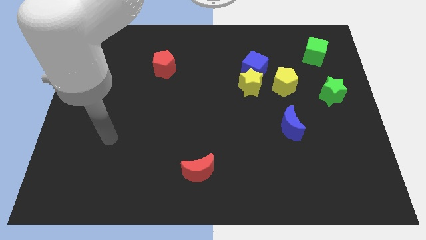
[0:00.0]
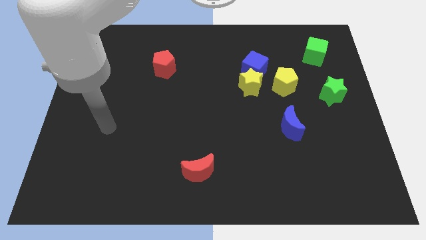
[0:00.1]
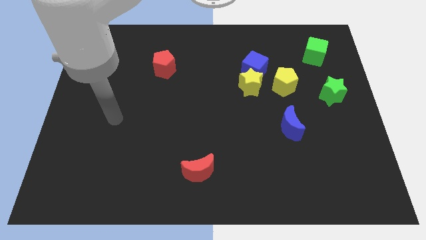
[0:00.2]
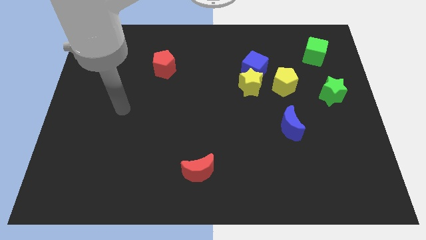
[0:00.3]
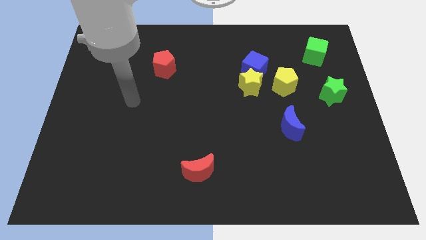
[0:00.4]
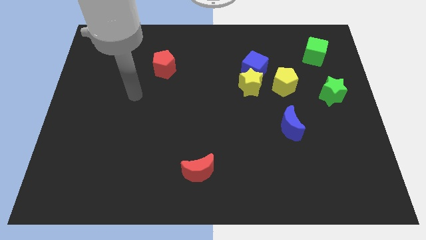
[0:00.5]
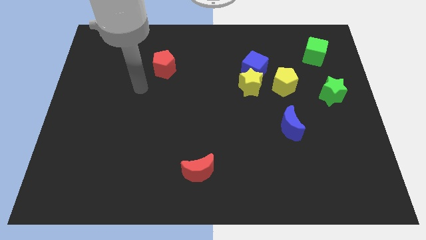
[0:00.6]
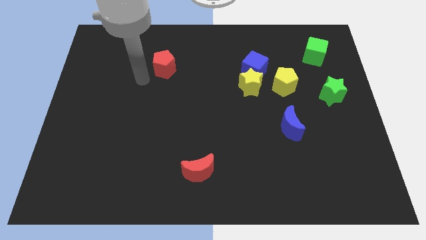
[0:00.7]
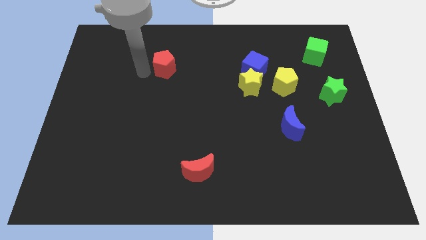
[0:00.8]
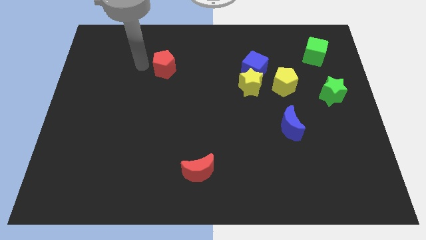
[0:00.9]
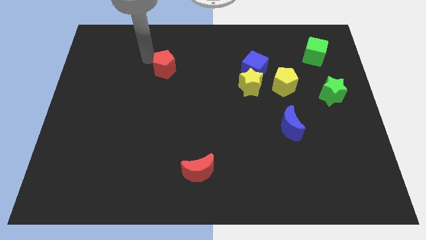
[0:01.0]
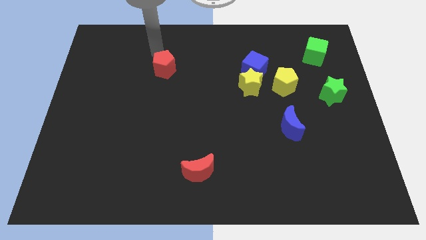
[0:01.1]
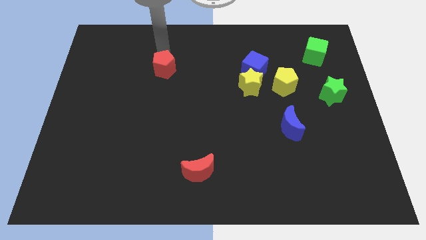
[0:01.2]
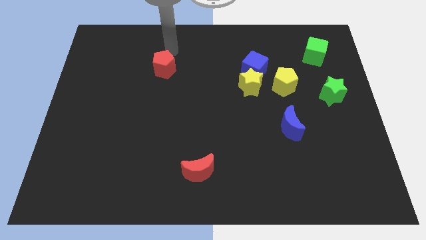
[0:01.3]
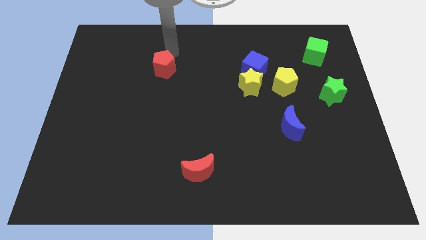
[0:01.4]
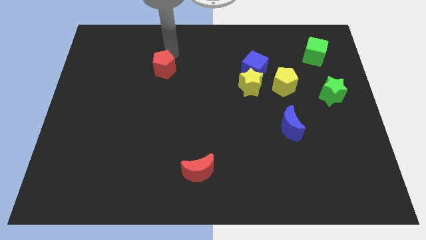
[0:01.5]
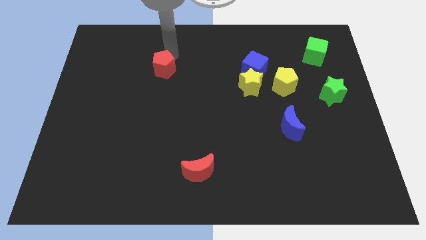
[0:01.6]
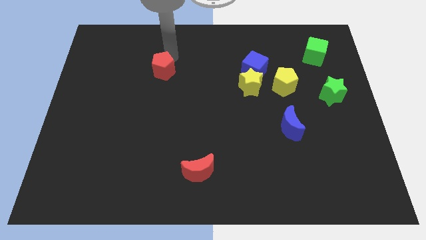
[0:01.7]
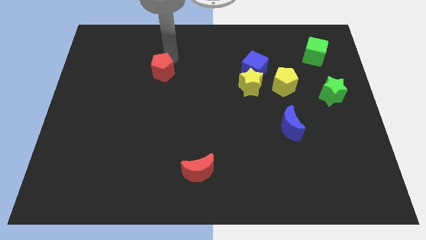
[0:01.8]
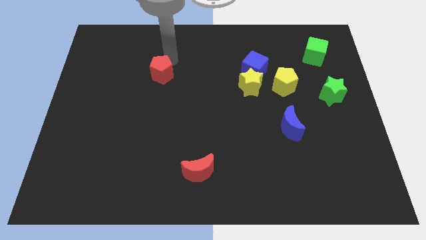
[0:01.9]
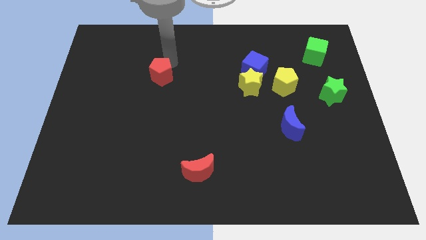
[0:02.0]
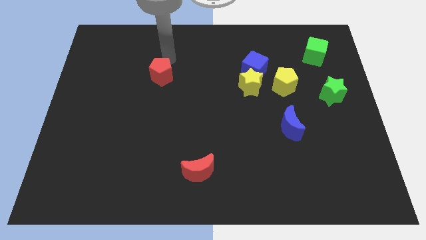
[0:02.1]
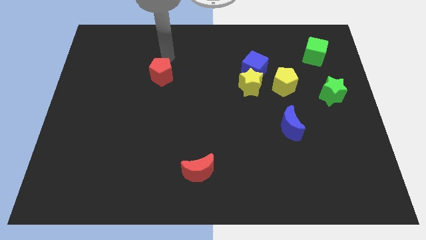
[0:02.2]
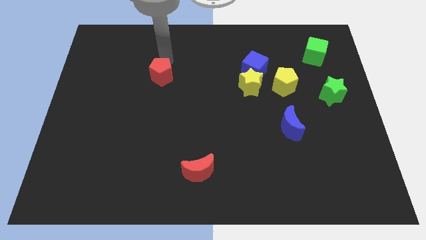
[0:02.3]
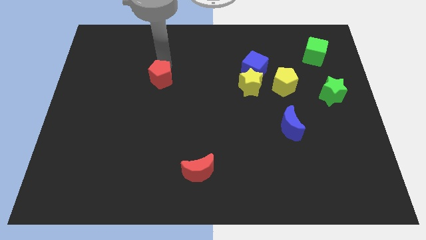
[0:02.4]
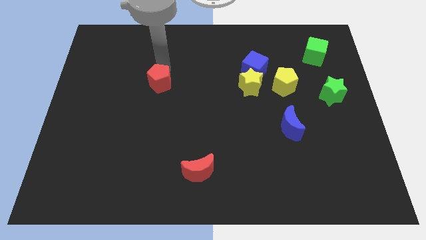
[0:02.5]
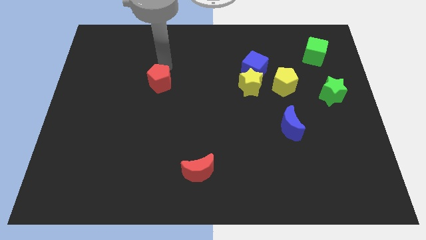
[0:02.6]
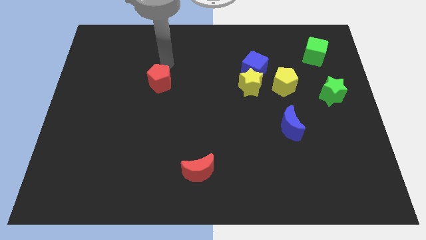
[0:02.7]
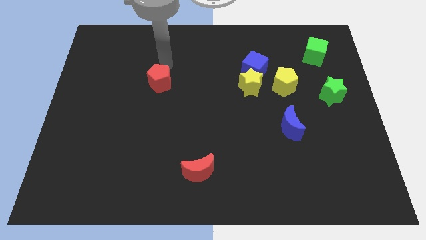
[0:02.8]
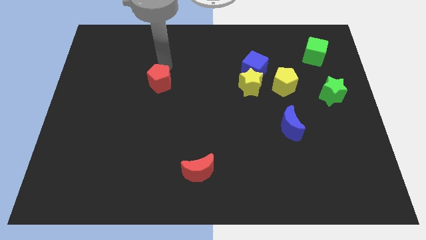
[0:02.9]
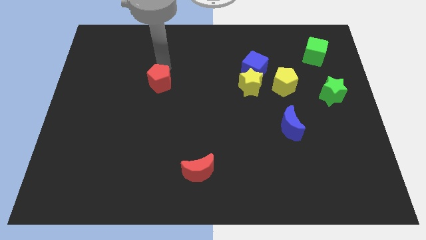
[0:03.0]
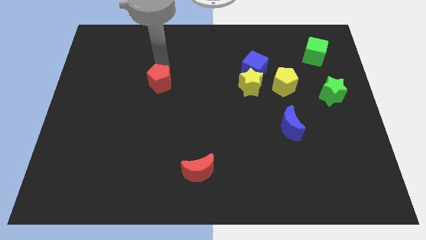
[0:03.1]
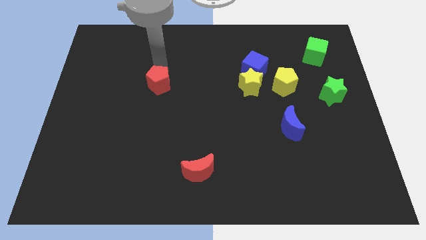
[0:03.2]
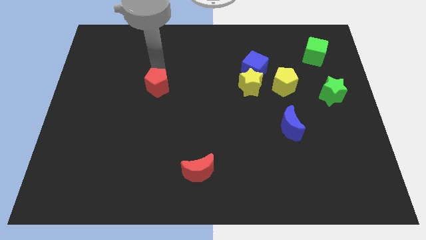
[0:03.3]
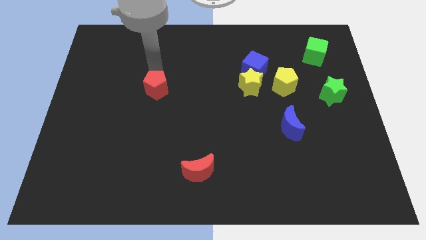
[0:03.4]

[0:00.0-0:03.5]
push the red pentagon somewhat down

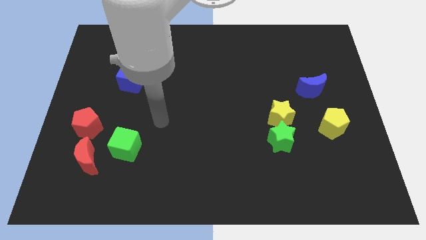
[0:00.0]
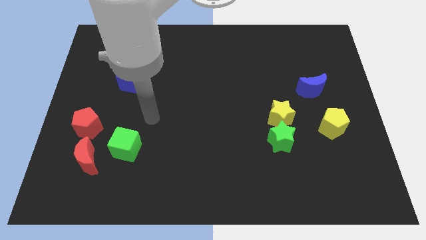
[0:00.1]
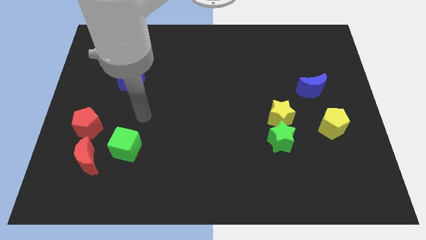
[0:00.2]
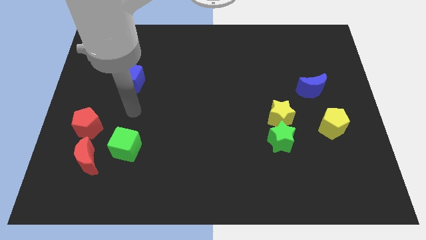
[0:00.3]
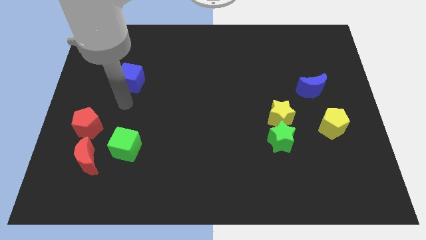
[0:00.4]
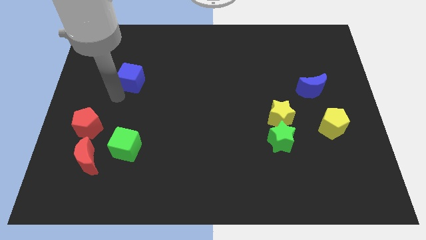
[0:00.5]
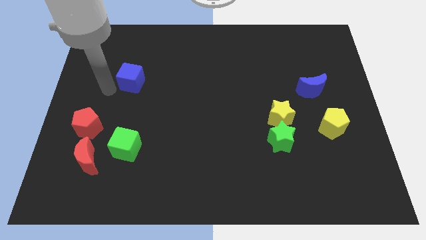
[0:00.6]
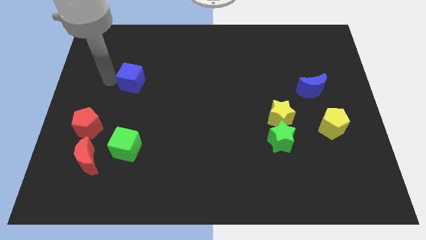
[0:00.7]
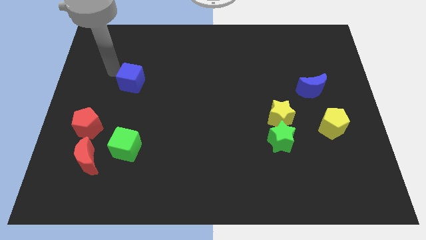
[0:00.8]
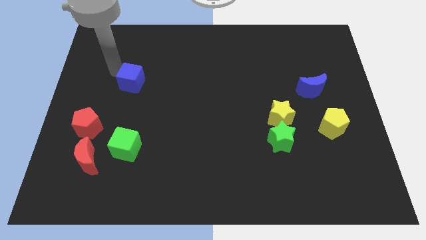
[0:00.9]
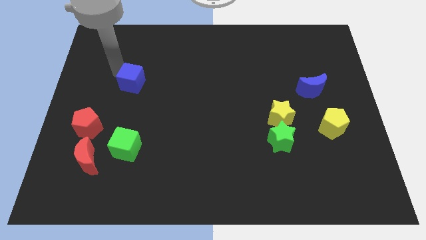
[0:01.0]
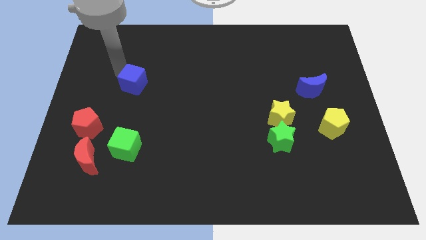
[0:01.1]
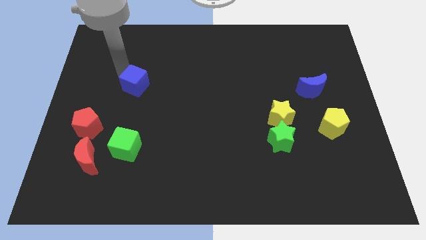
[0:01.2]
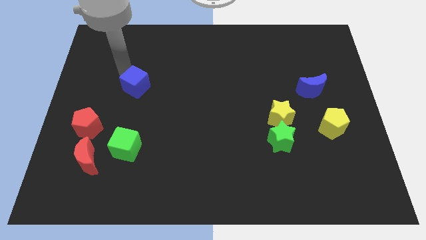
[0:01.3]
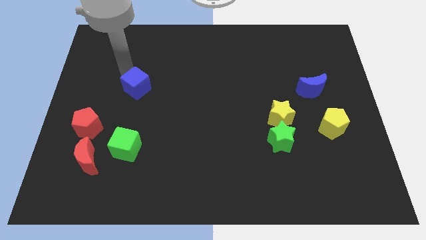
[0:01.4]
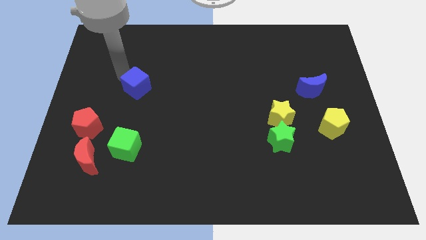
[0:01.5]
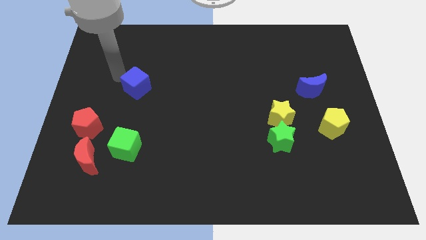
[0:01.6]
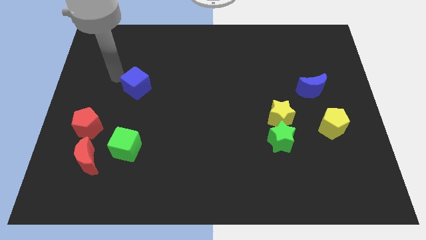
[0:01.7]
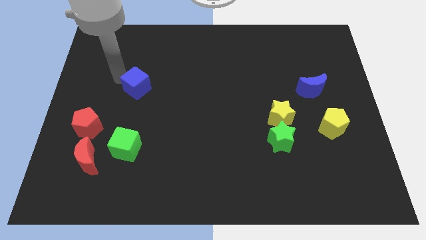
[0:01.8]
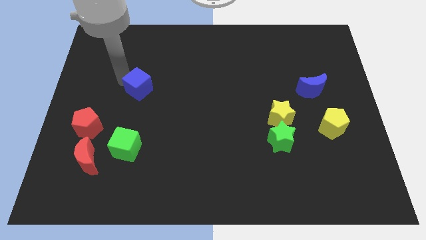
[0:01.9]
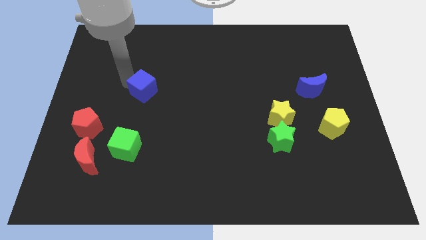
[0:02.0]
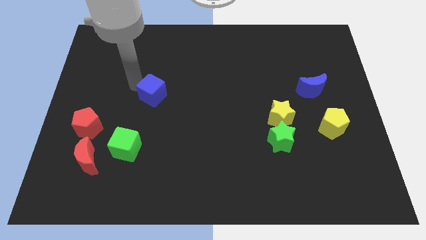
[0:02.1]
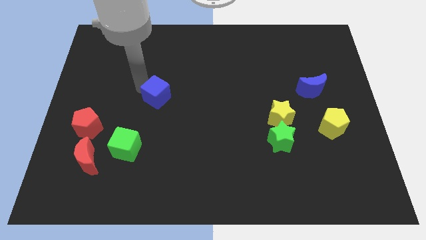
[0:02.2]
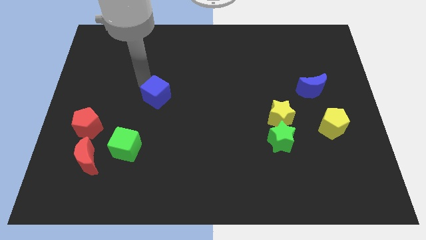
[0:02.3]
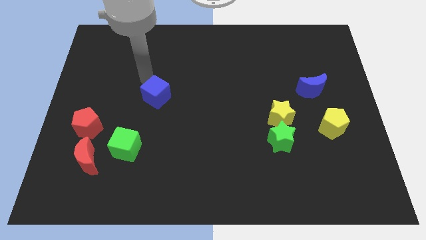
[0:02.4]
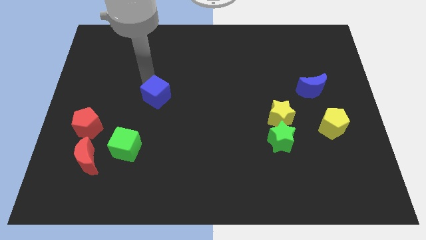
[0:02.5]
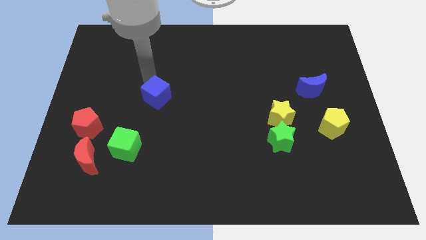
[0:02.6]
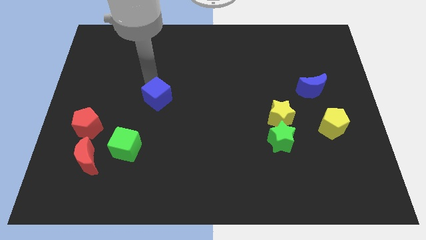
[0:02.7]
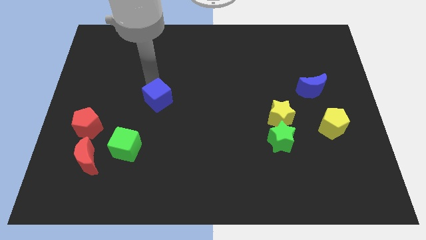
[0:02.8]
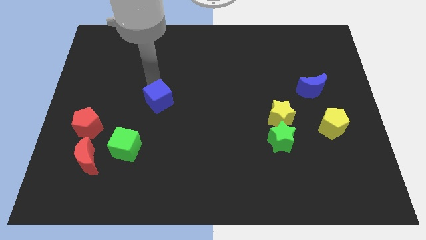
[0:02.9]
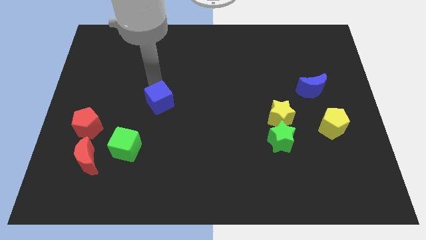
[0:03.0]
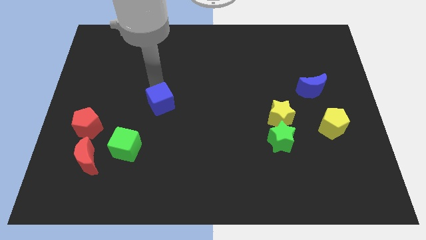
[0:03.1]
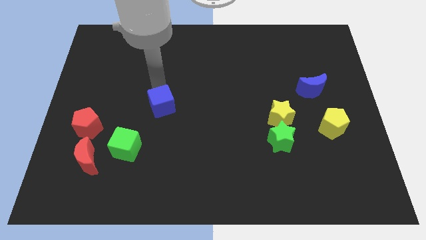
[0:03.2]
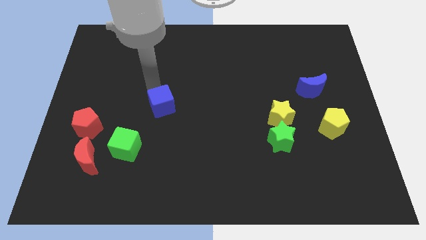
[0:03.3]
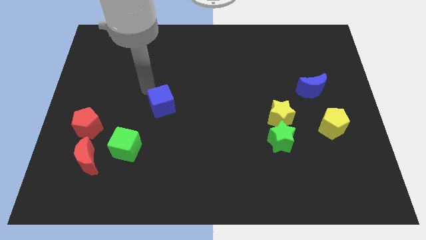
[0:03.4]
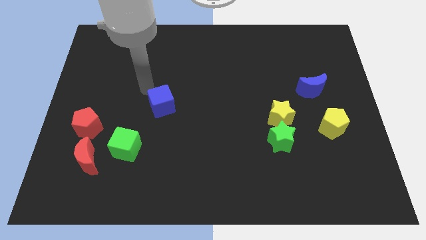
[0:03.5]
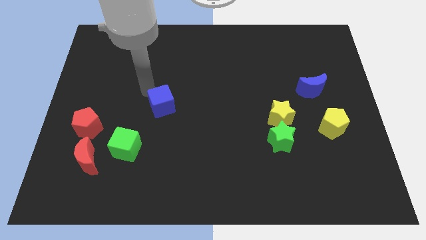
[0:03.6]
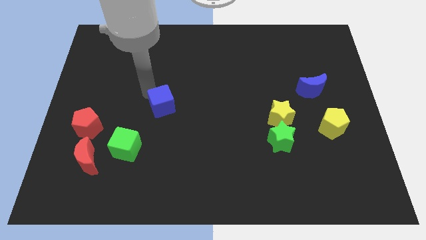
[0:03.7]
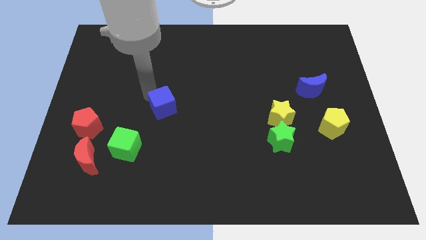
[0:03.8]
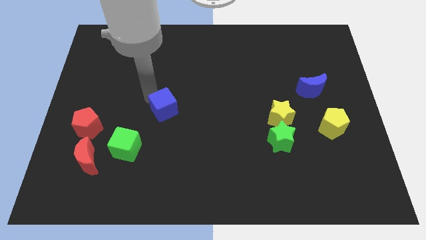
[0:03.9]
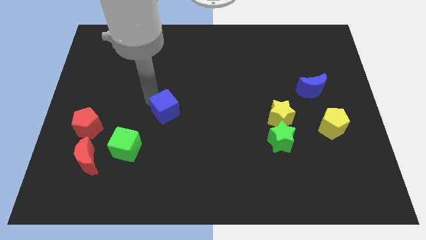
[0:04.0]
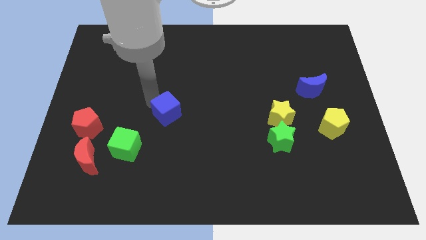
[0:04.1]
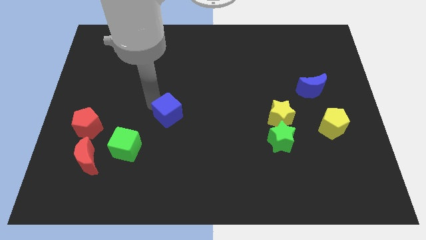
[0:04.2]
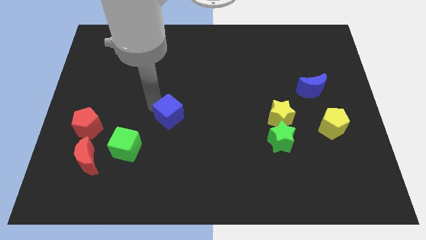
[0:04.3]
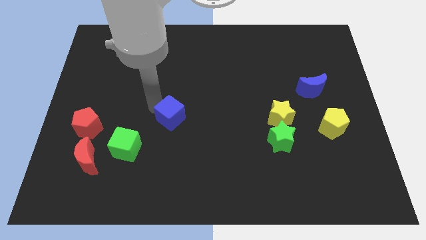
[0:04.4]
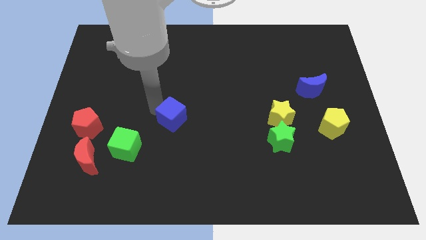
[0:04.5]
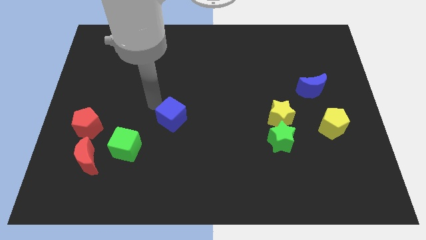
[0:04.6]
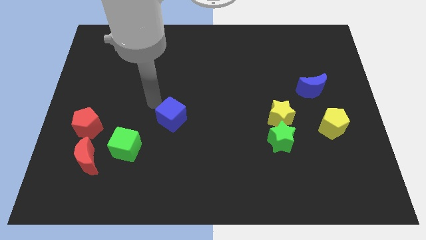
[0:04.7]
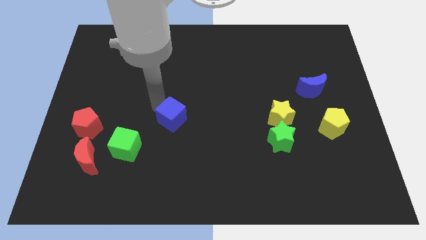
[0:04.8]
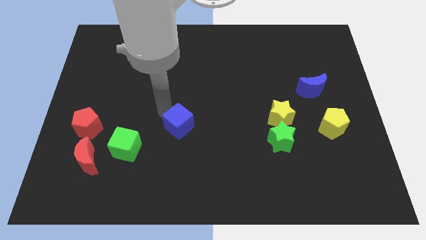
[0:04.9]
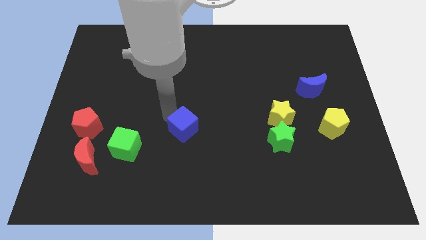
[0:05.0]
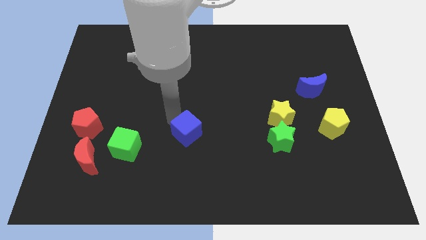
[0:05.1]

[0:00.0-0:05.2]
slide the blue cube diagonally downwards and to the right
